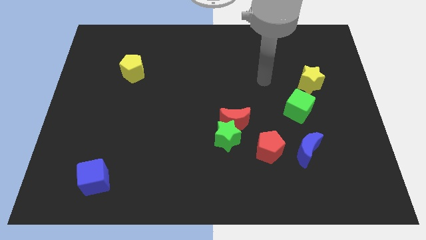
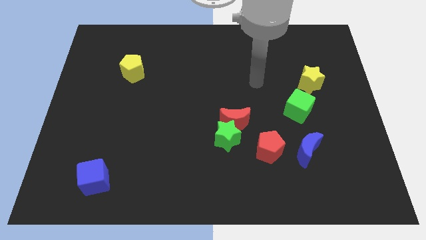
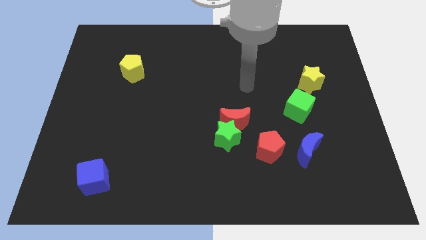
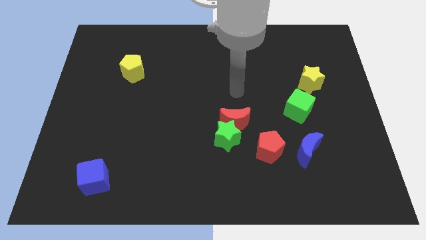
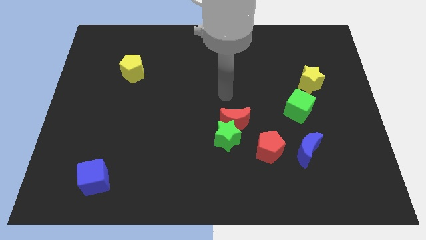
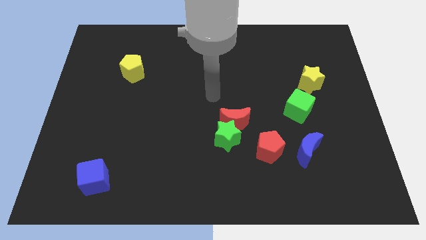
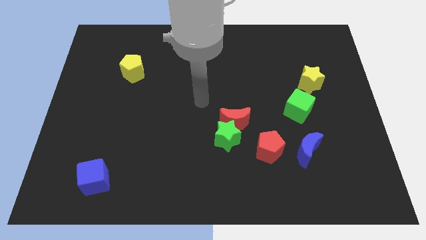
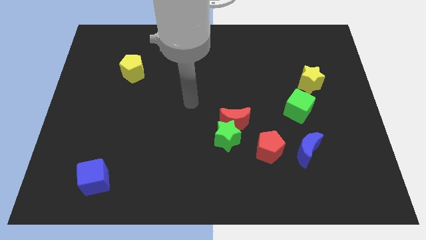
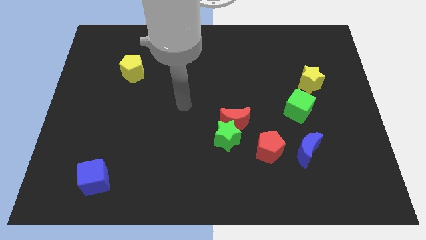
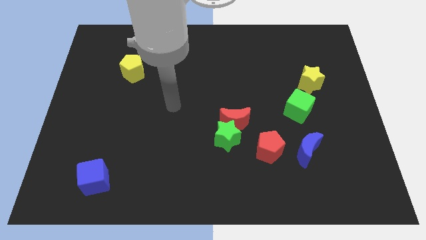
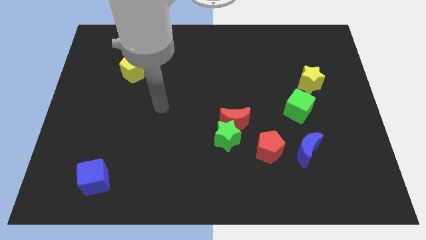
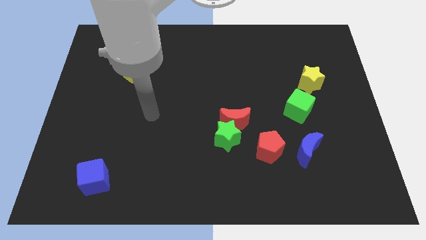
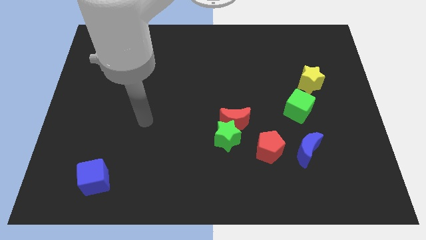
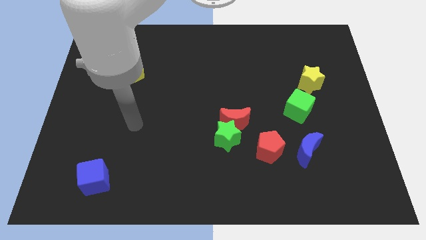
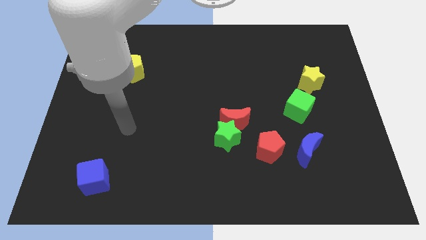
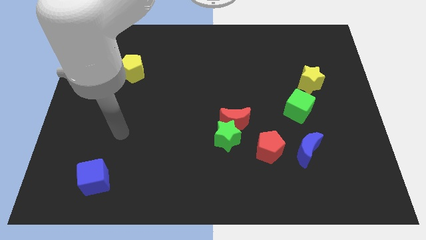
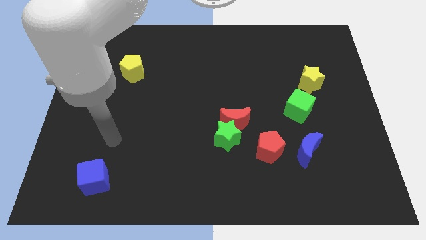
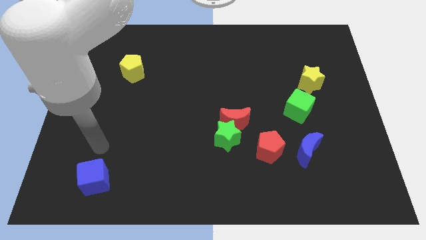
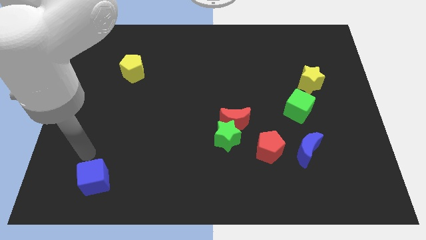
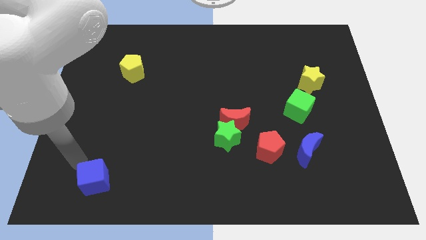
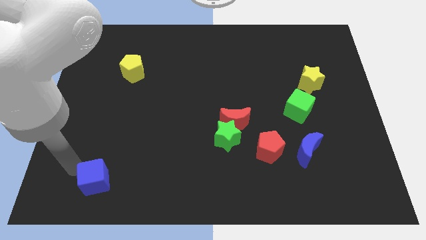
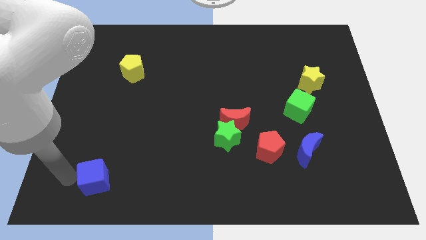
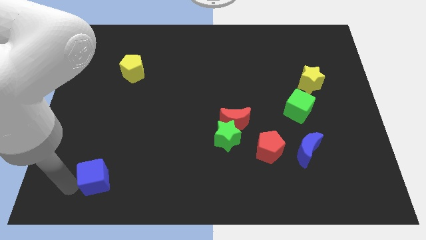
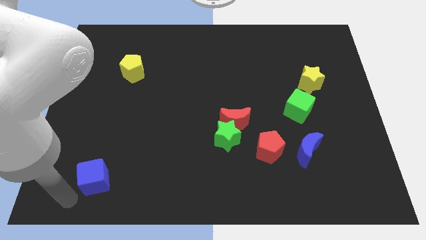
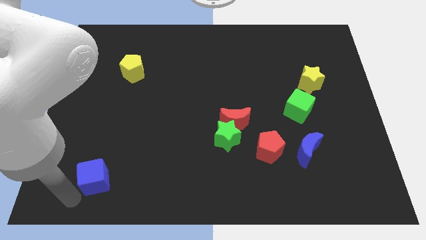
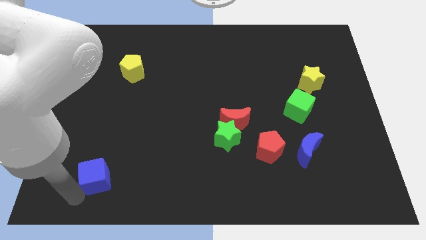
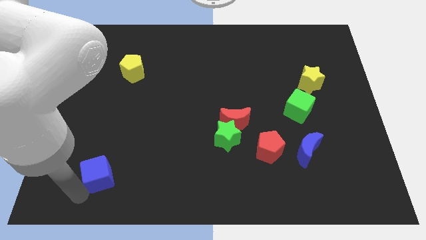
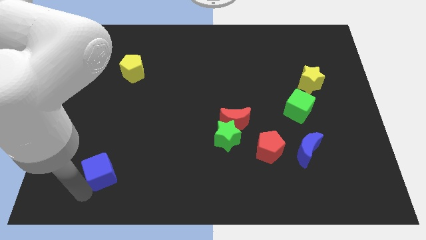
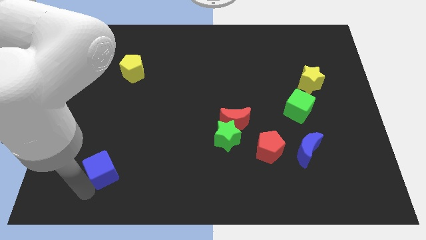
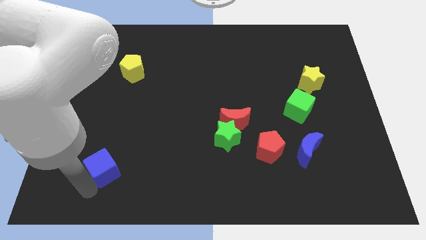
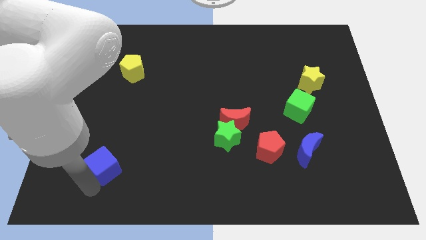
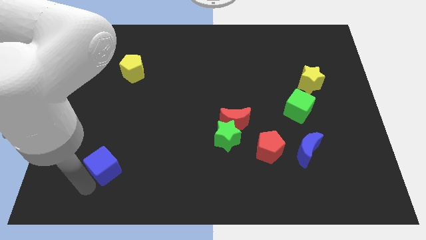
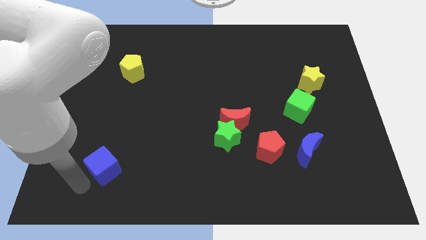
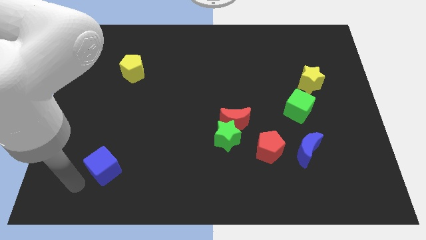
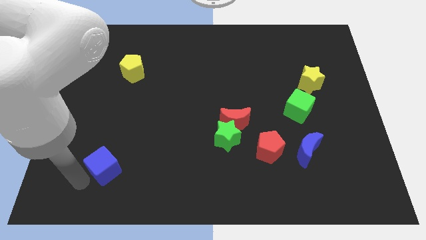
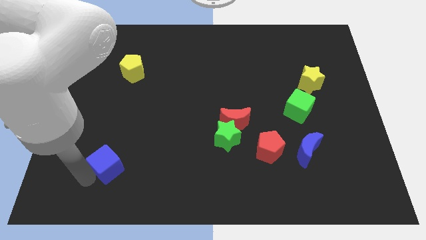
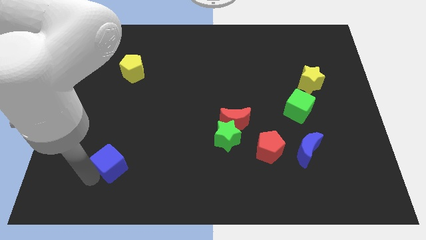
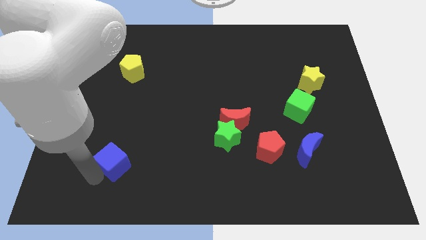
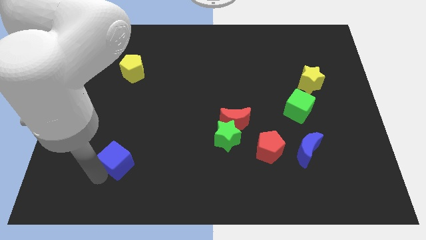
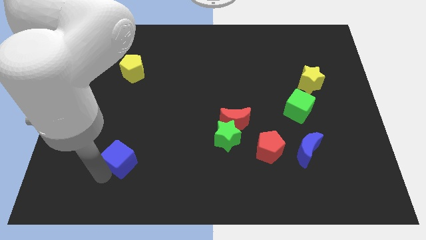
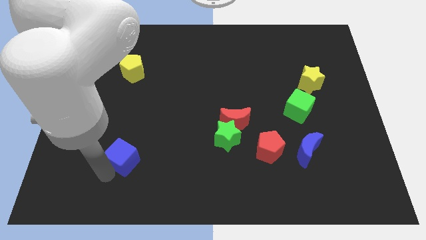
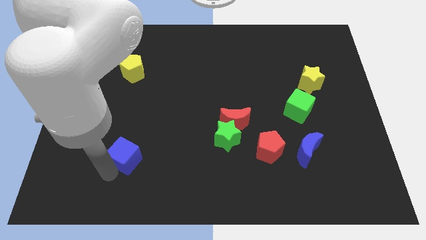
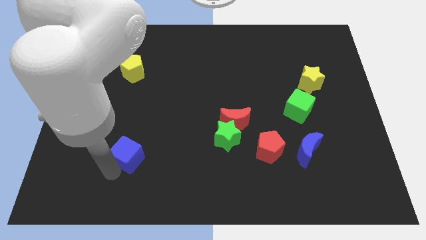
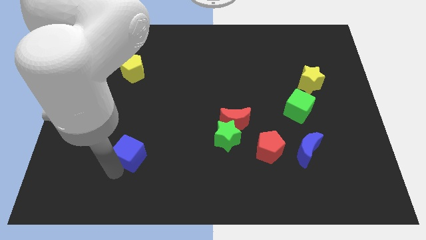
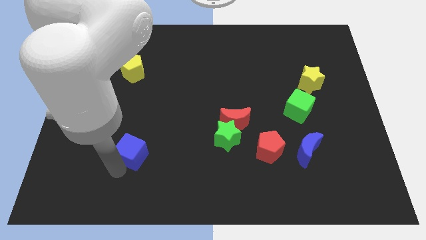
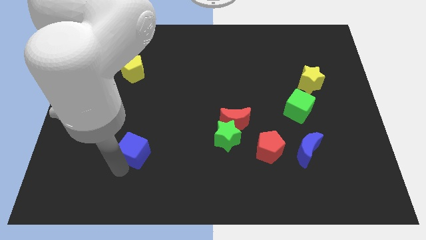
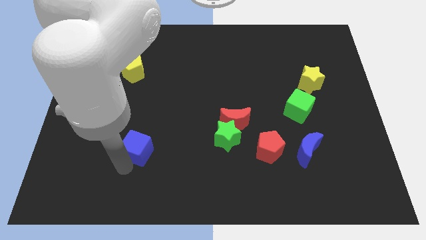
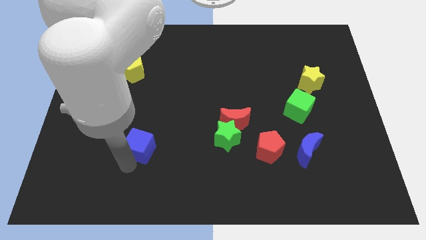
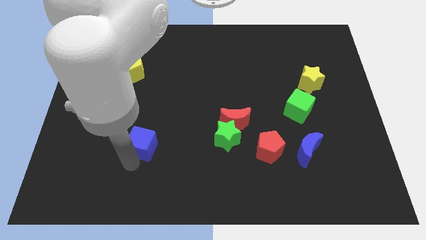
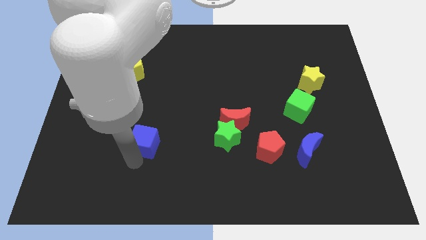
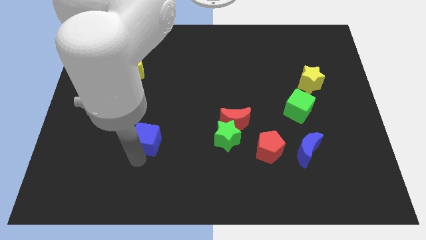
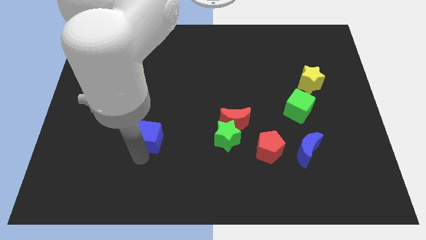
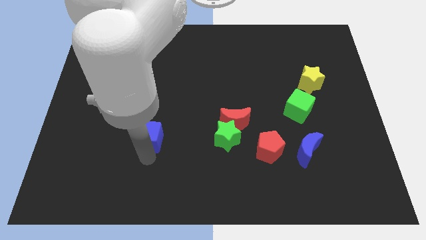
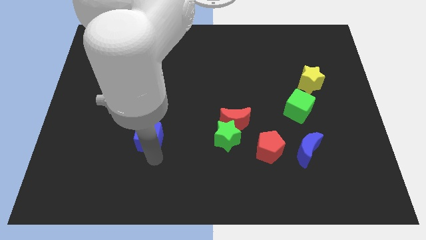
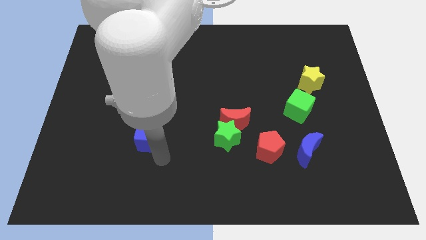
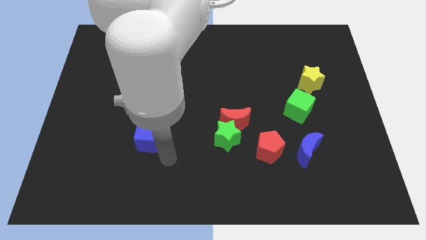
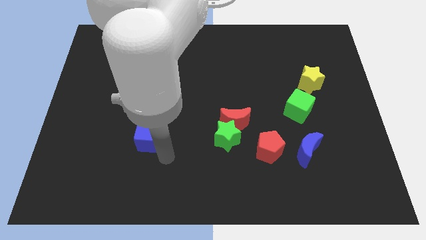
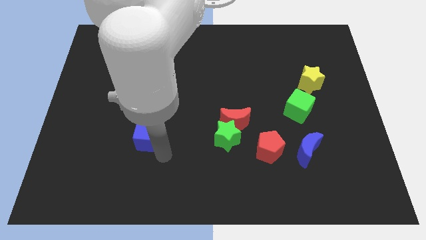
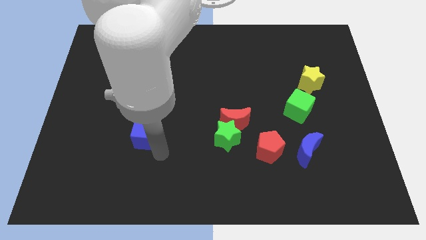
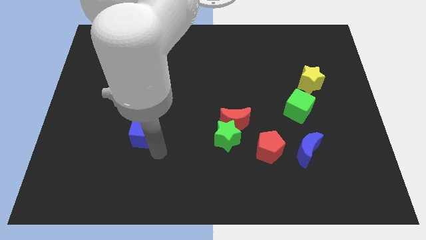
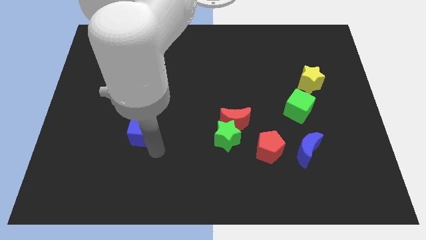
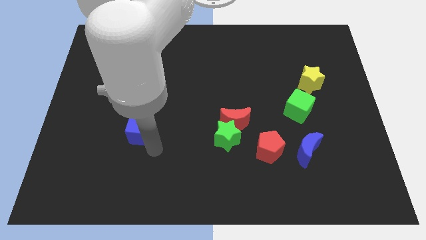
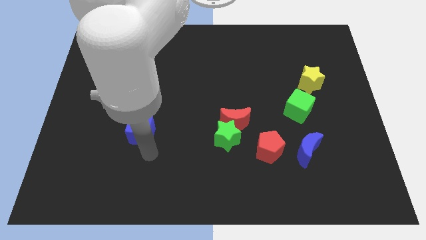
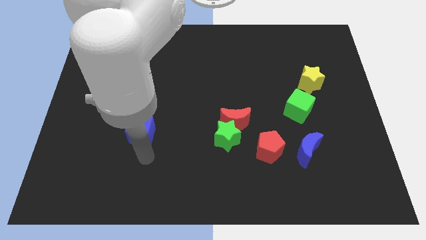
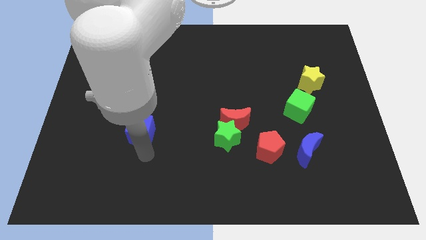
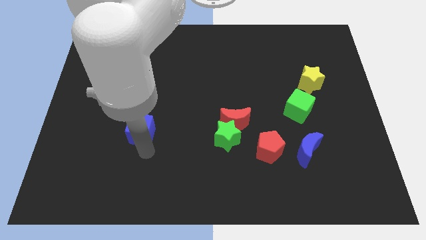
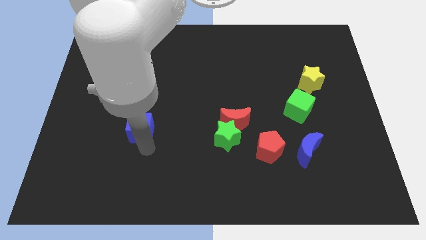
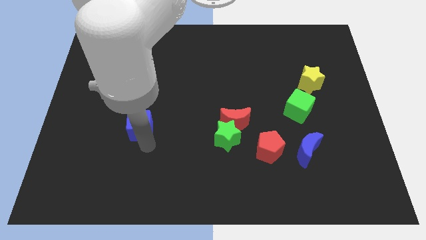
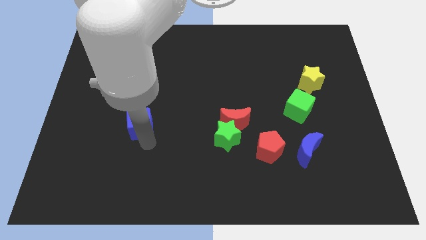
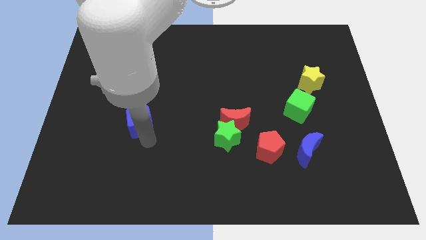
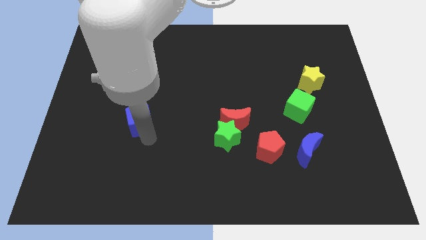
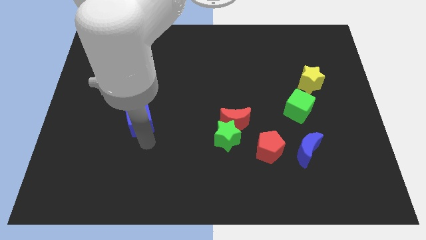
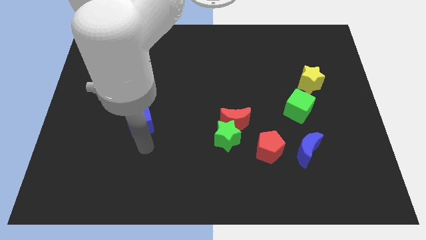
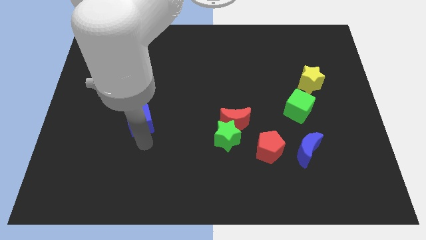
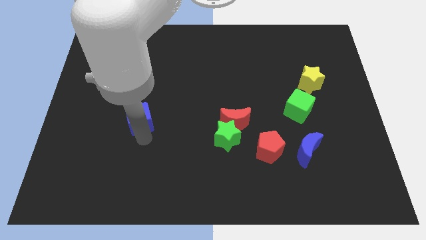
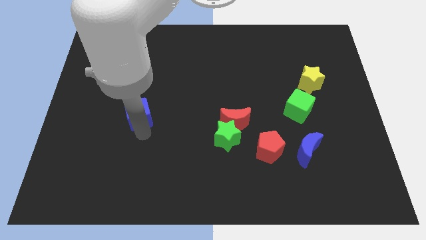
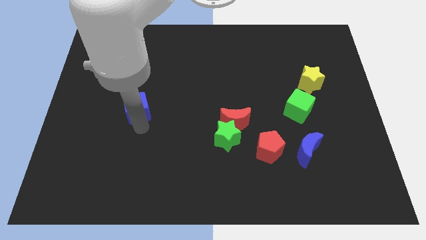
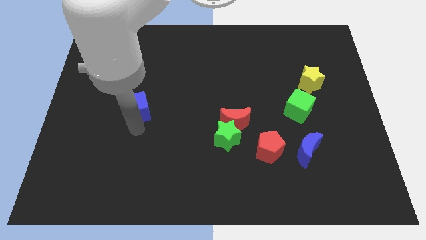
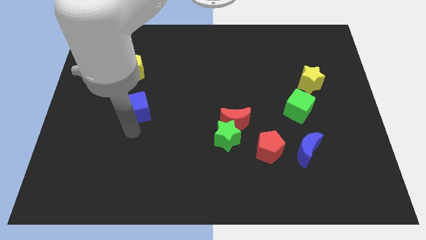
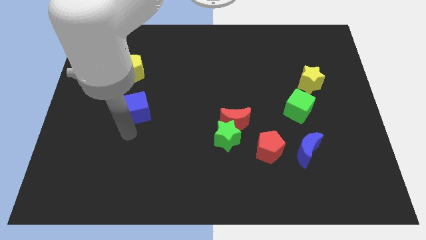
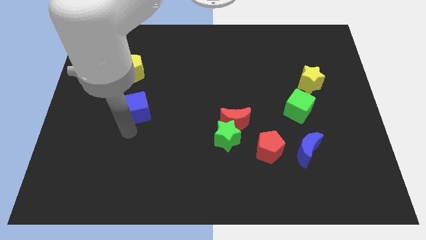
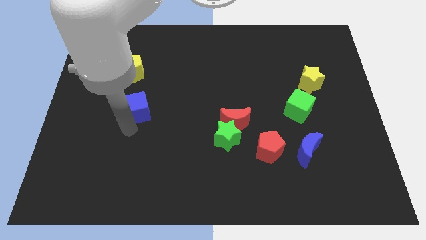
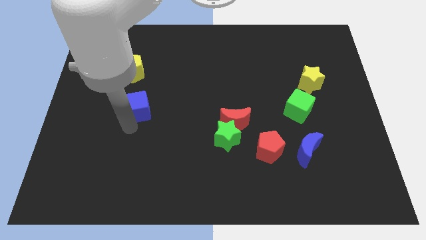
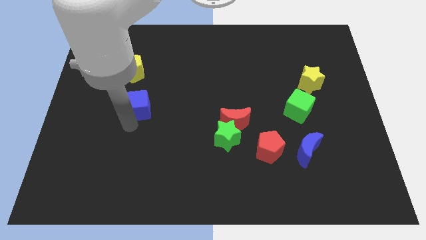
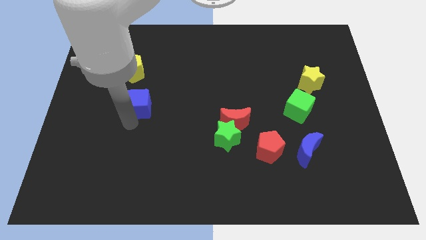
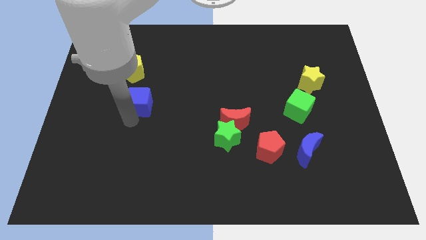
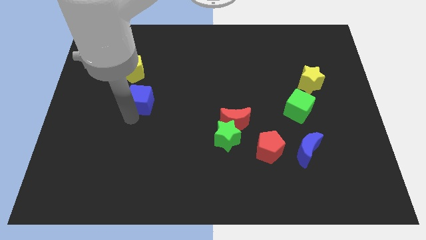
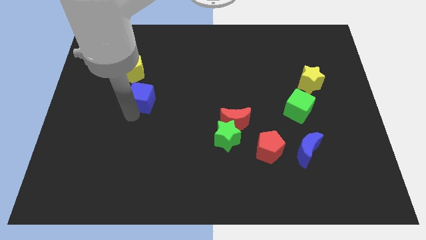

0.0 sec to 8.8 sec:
slide the blue cube to the bottom right of the yellow pentagon
